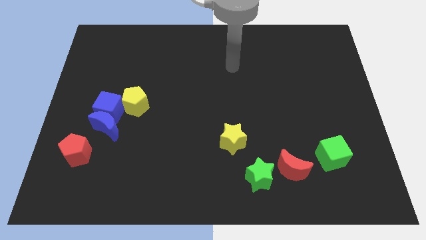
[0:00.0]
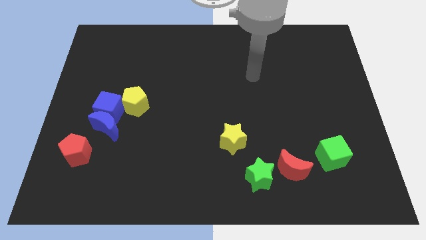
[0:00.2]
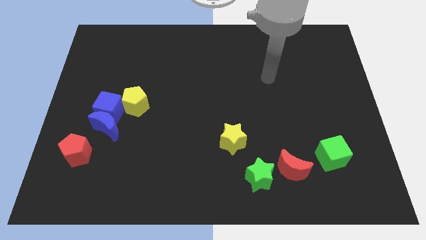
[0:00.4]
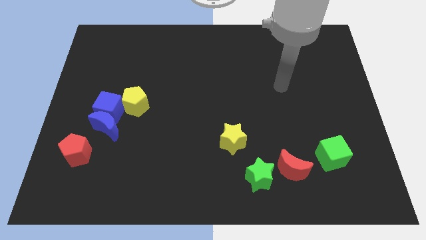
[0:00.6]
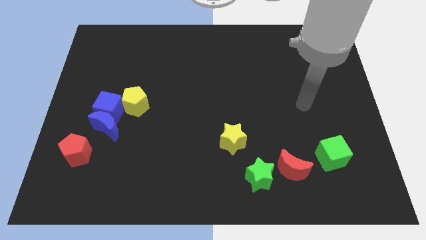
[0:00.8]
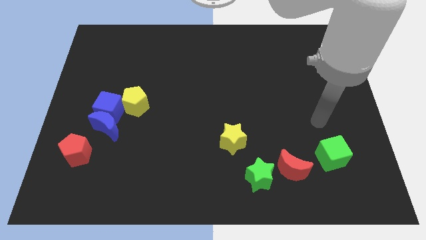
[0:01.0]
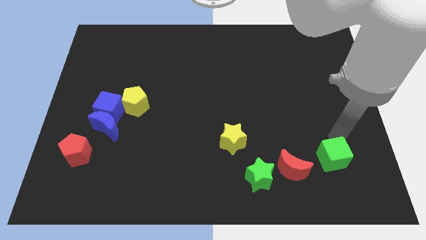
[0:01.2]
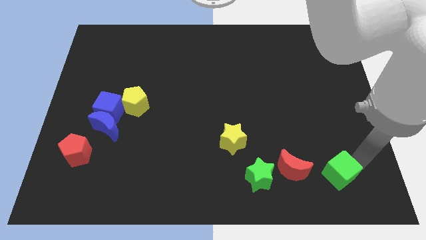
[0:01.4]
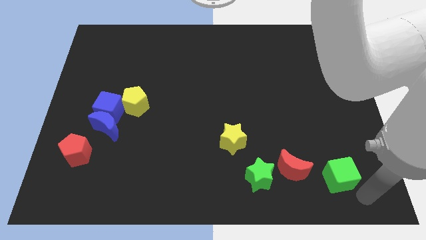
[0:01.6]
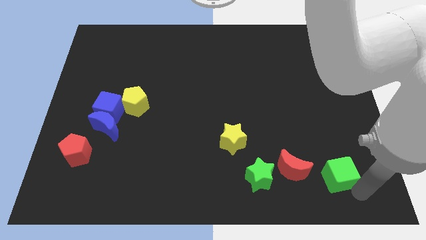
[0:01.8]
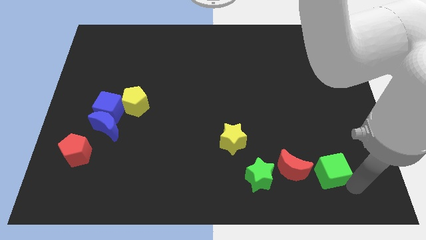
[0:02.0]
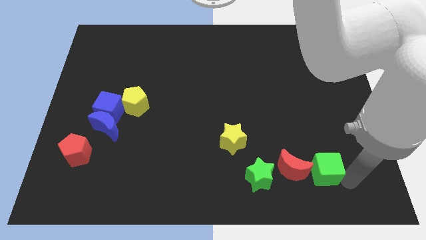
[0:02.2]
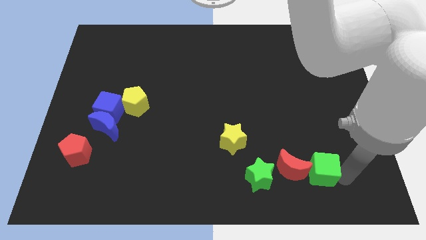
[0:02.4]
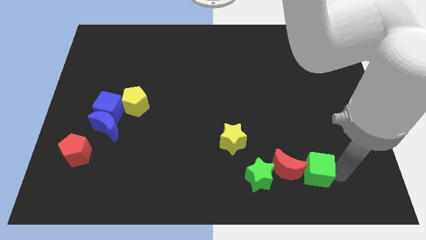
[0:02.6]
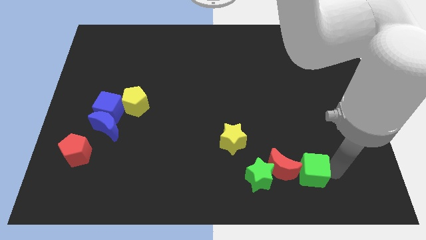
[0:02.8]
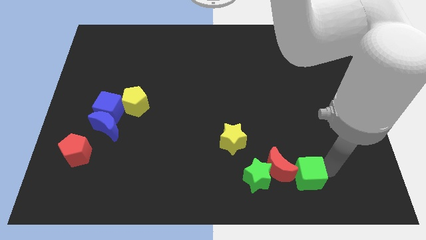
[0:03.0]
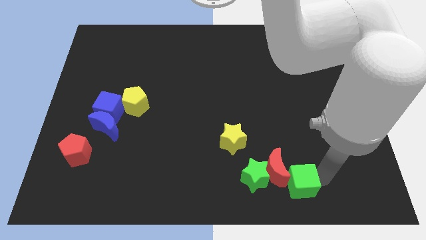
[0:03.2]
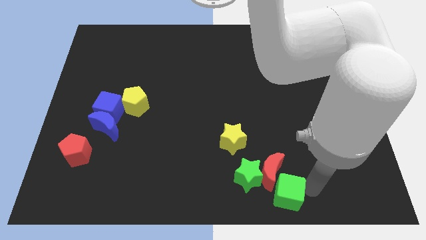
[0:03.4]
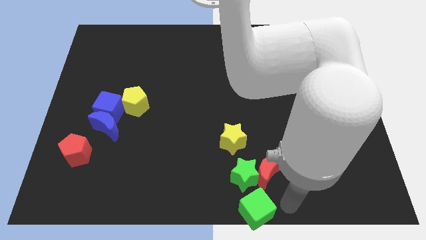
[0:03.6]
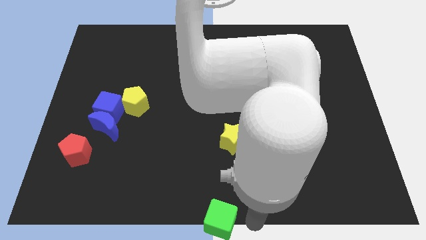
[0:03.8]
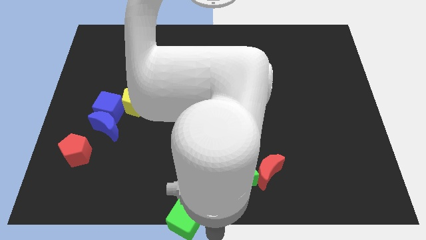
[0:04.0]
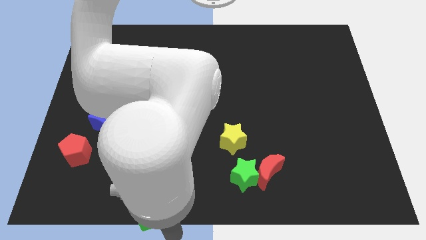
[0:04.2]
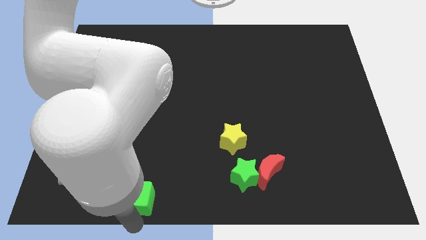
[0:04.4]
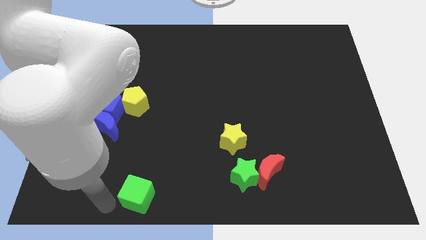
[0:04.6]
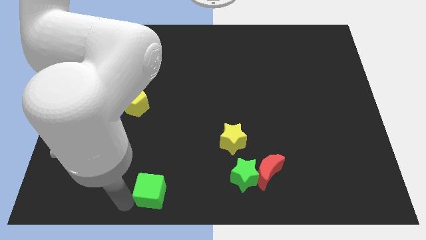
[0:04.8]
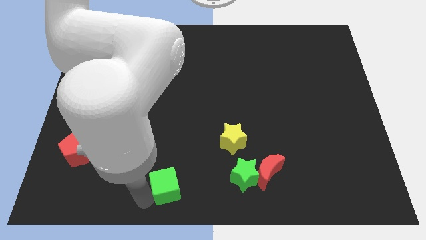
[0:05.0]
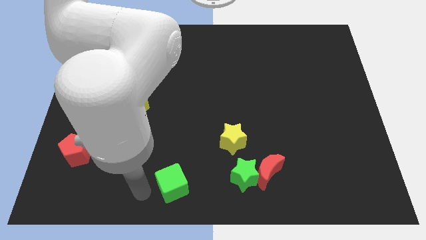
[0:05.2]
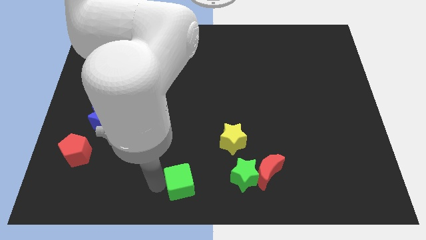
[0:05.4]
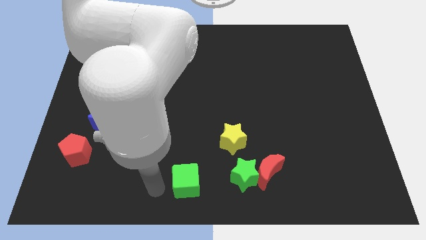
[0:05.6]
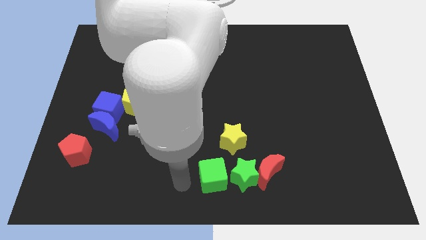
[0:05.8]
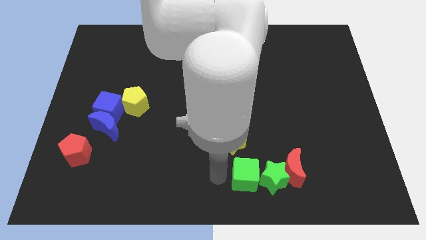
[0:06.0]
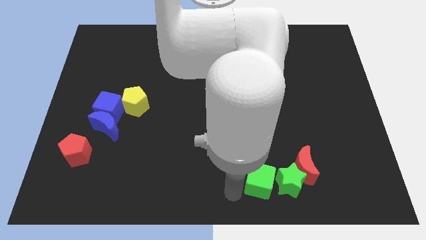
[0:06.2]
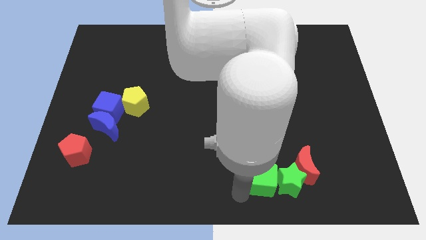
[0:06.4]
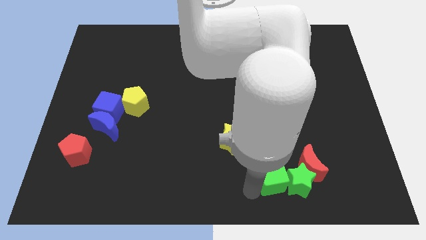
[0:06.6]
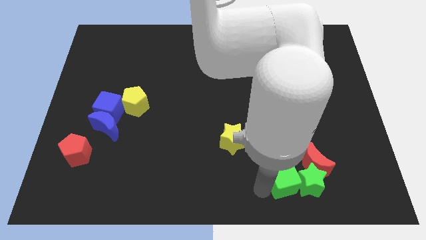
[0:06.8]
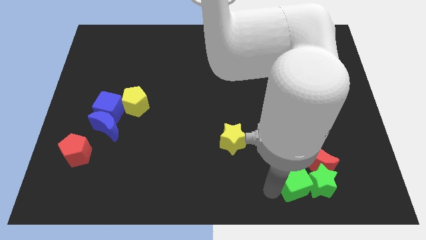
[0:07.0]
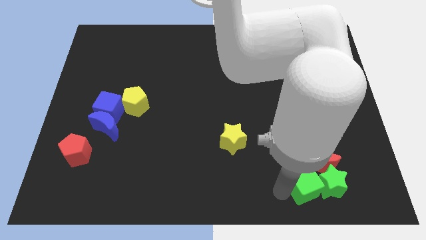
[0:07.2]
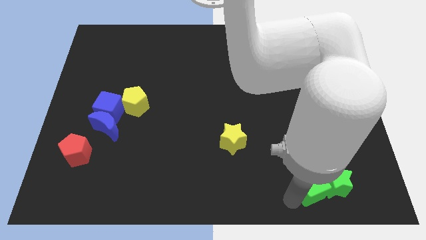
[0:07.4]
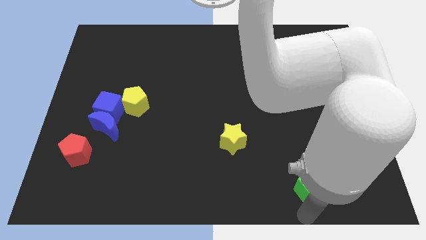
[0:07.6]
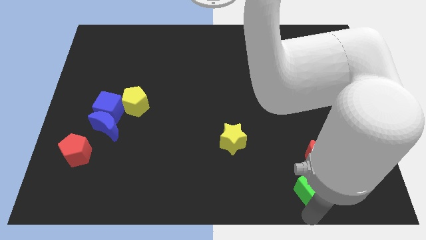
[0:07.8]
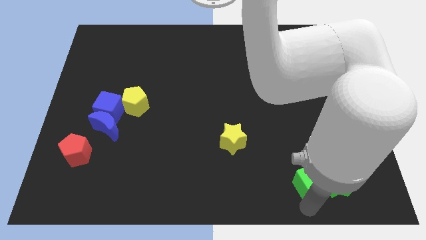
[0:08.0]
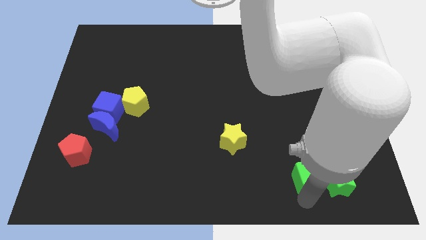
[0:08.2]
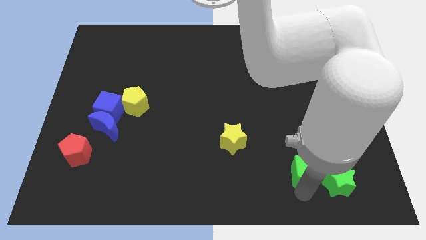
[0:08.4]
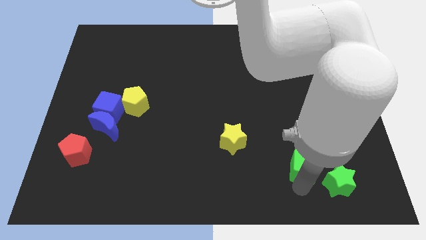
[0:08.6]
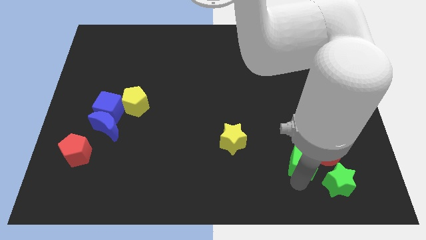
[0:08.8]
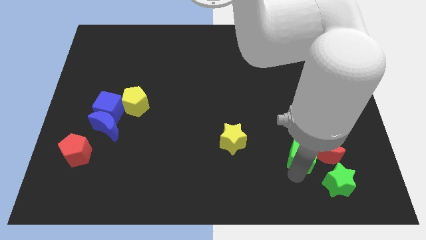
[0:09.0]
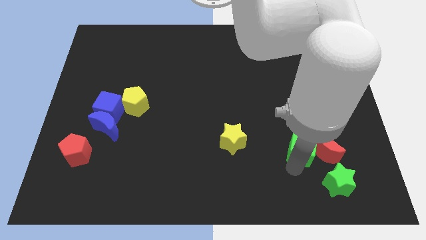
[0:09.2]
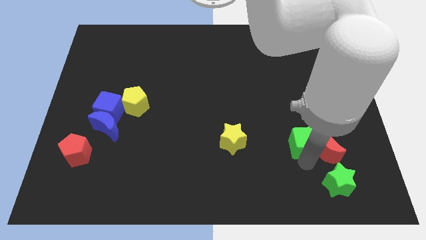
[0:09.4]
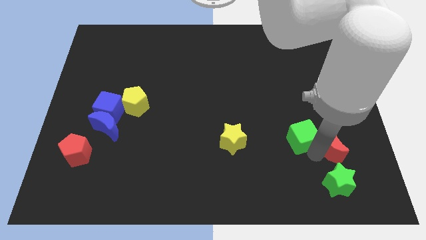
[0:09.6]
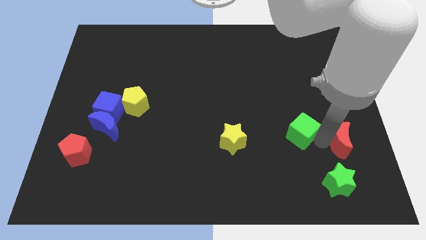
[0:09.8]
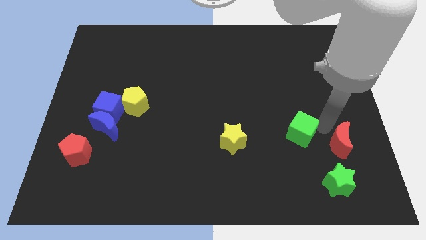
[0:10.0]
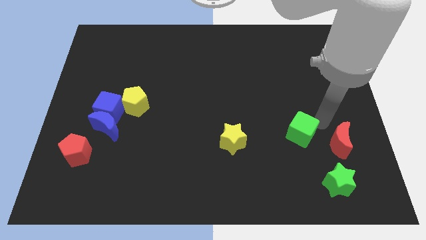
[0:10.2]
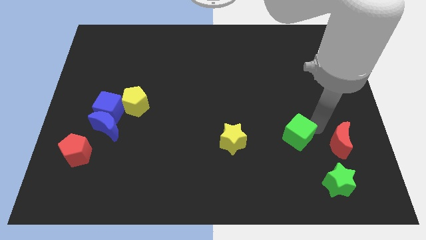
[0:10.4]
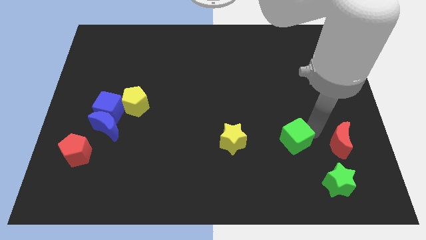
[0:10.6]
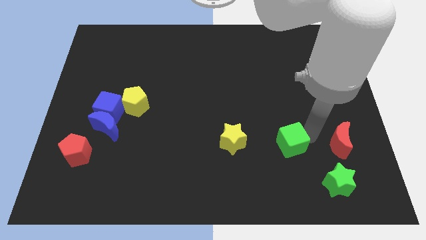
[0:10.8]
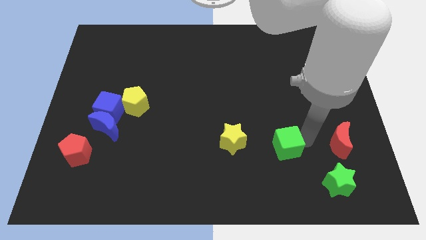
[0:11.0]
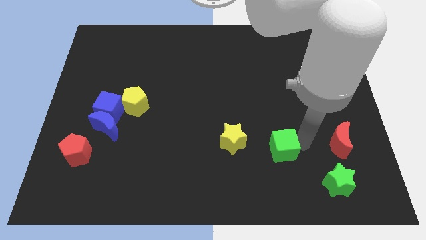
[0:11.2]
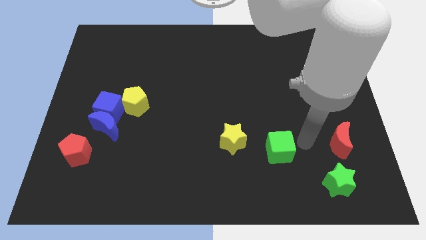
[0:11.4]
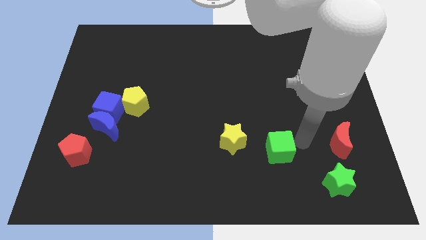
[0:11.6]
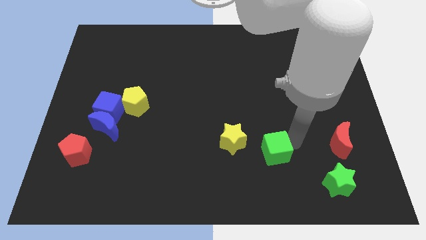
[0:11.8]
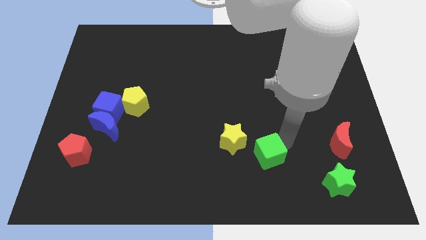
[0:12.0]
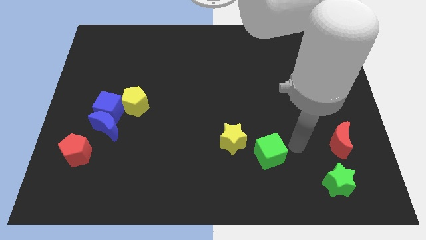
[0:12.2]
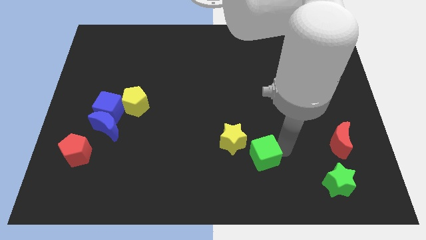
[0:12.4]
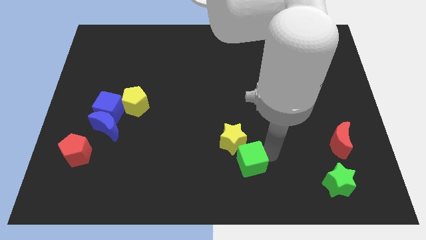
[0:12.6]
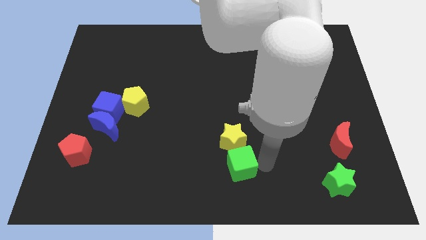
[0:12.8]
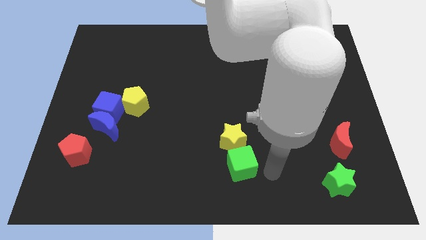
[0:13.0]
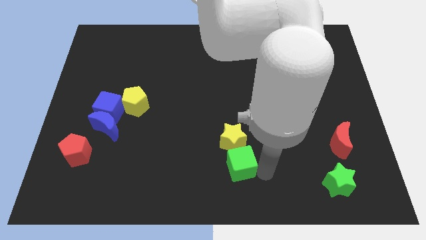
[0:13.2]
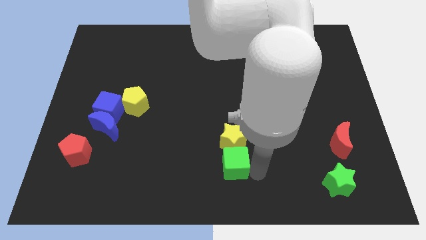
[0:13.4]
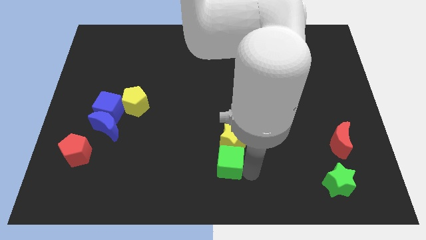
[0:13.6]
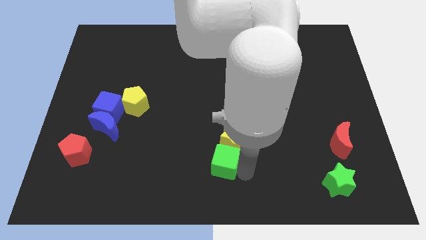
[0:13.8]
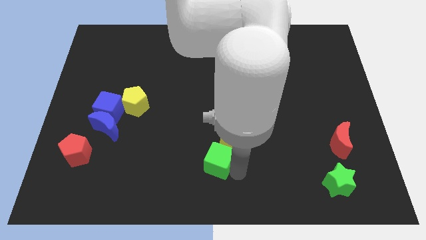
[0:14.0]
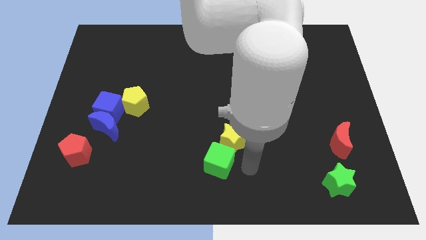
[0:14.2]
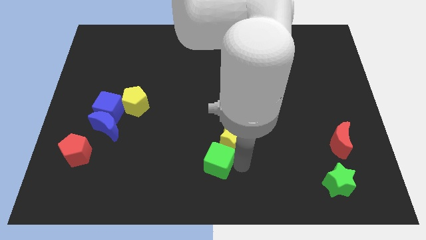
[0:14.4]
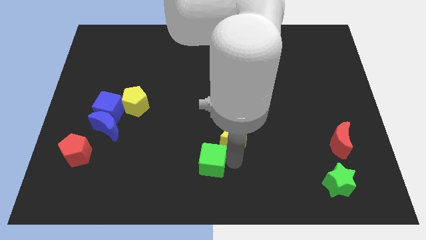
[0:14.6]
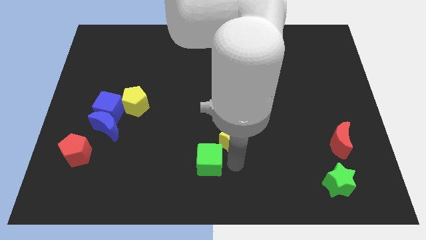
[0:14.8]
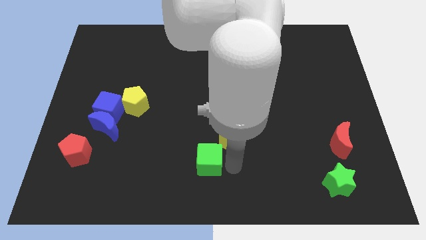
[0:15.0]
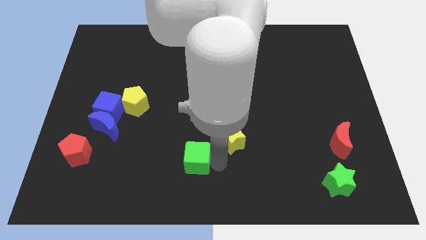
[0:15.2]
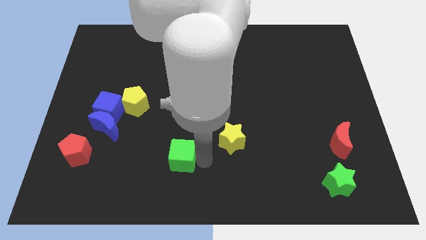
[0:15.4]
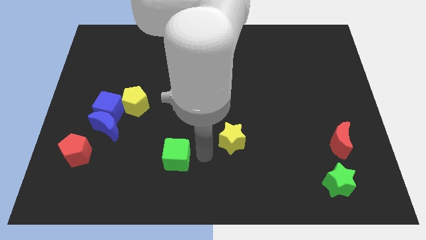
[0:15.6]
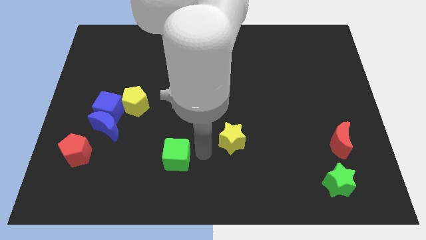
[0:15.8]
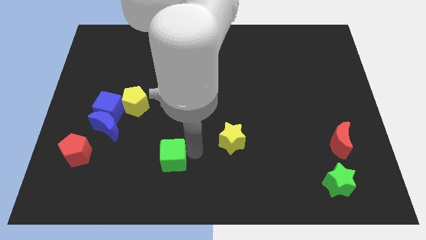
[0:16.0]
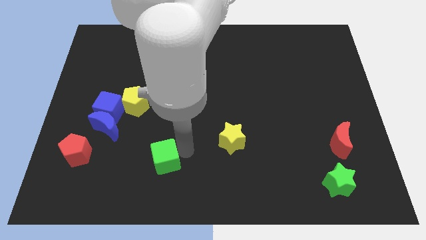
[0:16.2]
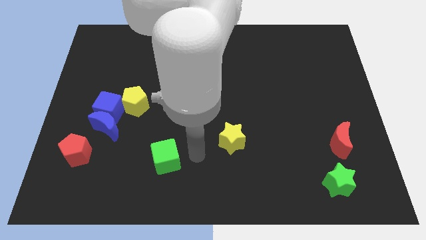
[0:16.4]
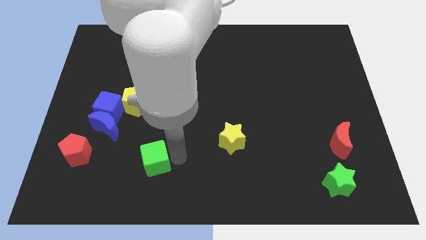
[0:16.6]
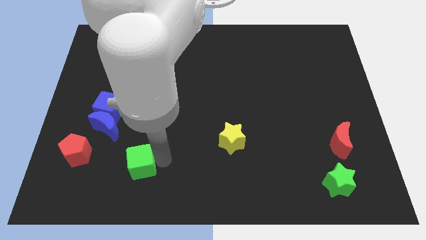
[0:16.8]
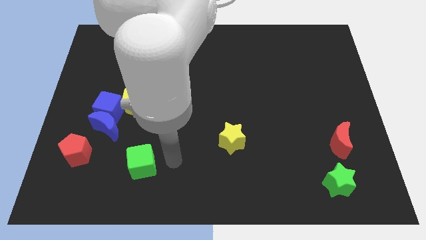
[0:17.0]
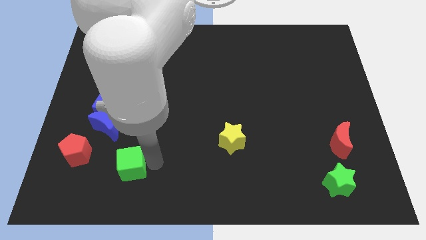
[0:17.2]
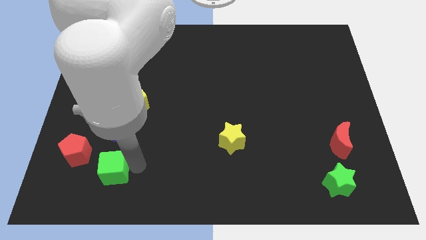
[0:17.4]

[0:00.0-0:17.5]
move the green cube to the bottom side of the blue moon
